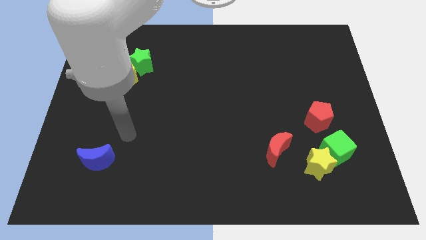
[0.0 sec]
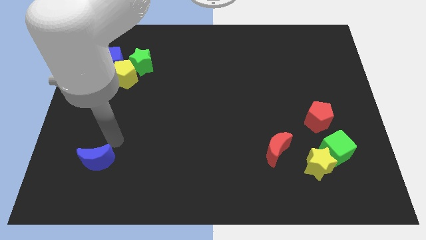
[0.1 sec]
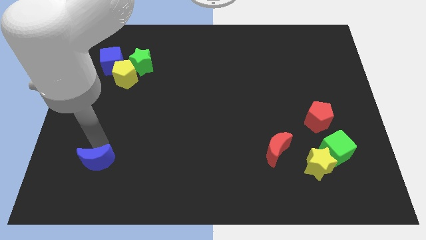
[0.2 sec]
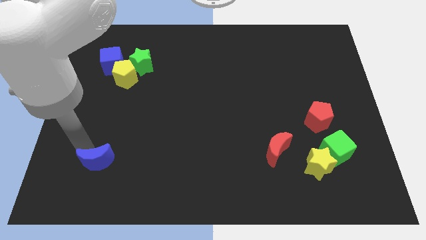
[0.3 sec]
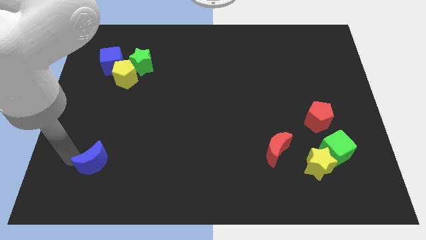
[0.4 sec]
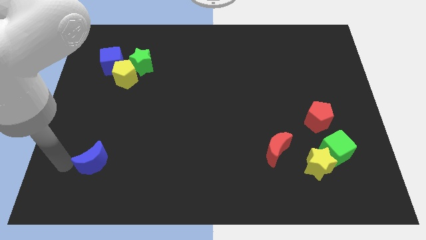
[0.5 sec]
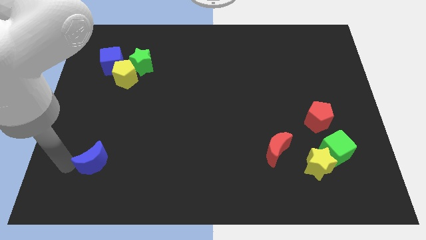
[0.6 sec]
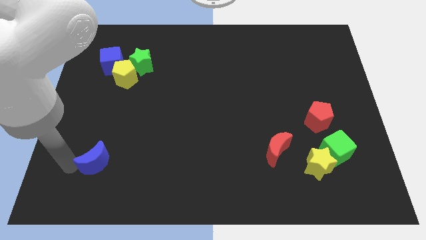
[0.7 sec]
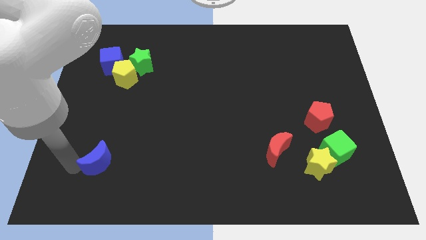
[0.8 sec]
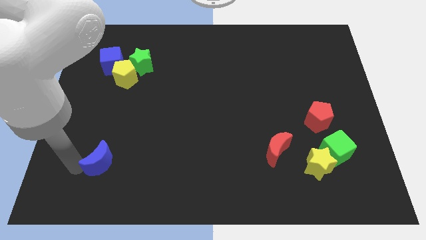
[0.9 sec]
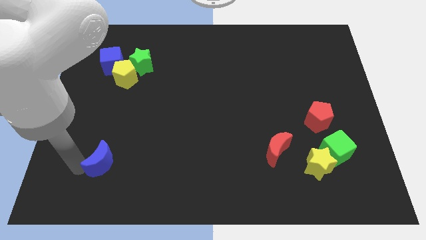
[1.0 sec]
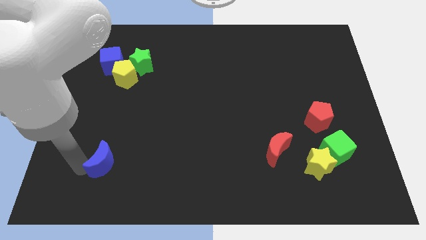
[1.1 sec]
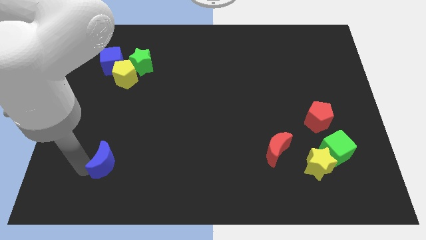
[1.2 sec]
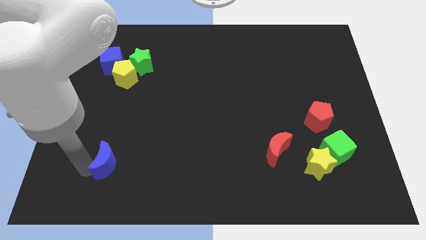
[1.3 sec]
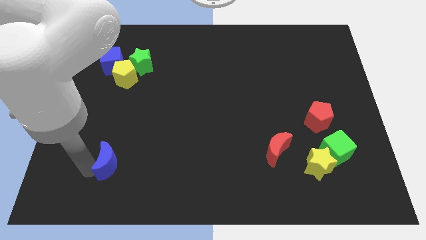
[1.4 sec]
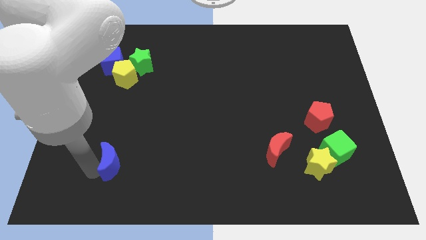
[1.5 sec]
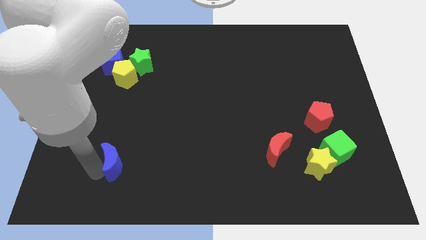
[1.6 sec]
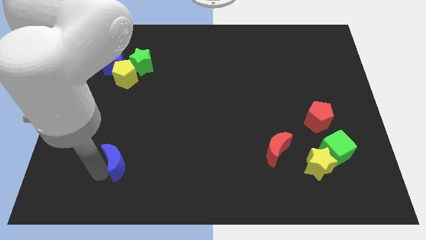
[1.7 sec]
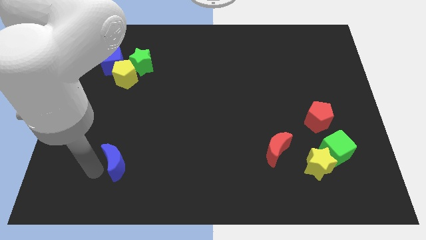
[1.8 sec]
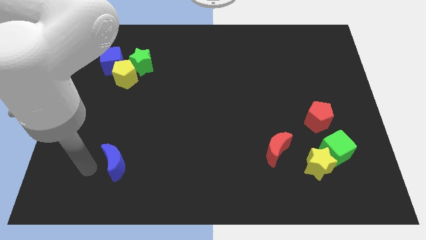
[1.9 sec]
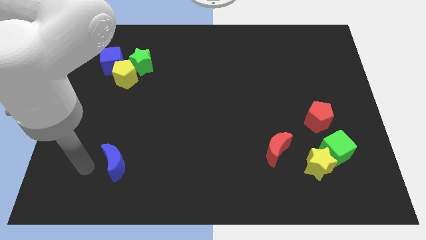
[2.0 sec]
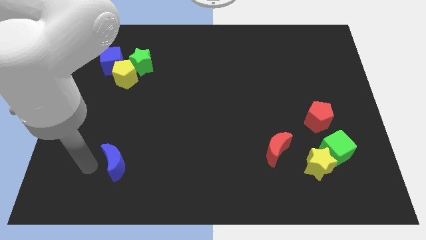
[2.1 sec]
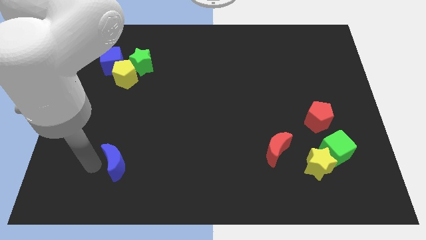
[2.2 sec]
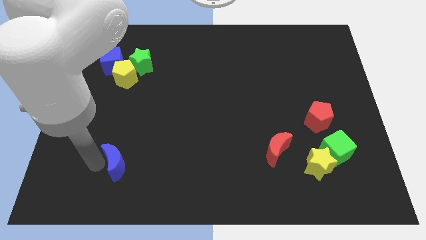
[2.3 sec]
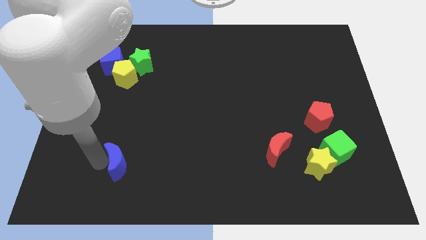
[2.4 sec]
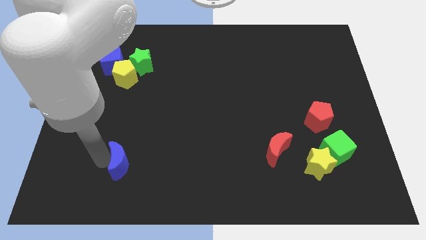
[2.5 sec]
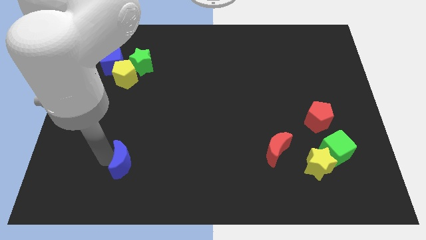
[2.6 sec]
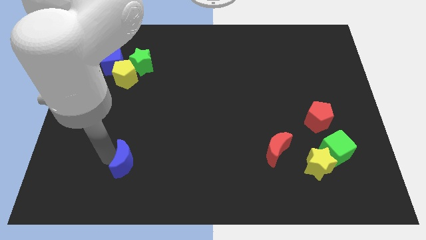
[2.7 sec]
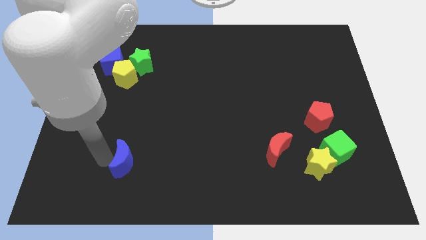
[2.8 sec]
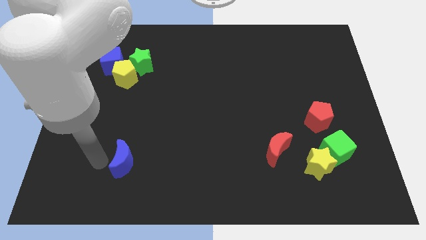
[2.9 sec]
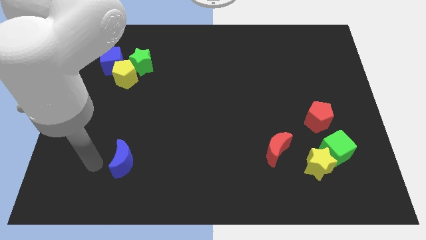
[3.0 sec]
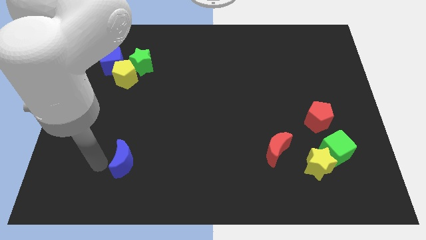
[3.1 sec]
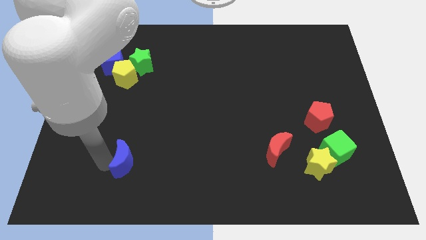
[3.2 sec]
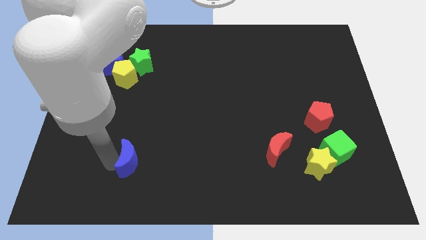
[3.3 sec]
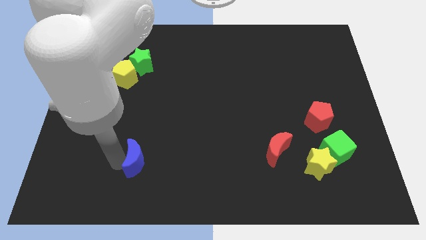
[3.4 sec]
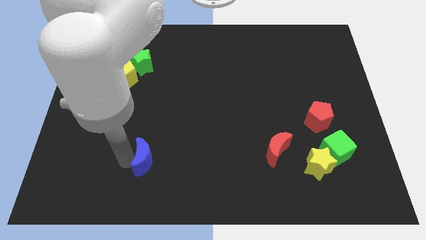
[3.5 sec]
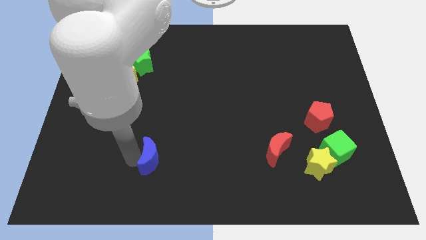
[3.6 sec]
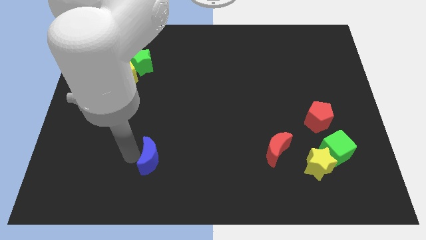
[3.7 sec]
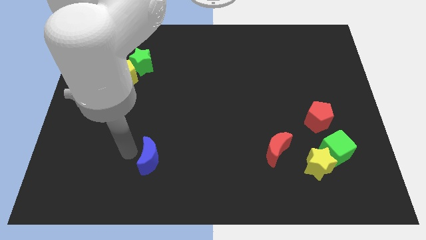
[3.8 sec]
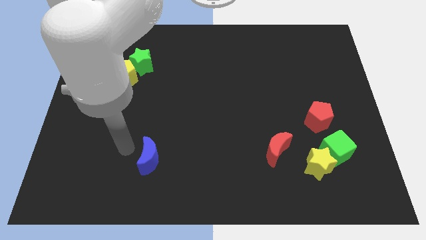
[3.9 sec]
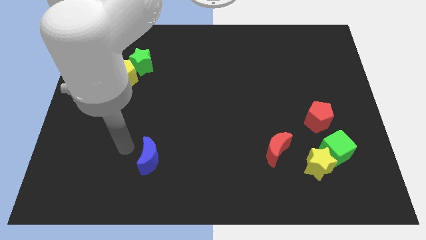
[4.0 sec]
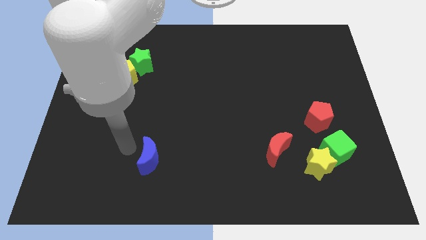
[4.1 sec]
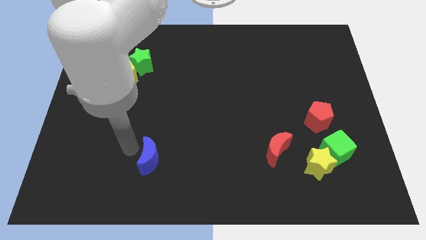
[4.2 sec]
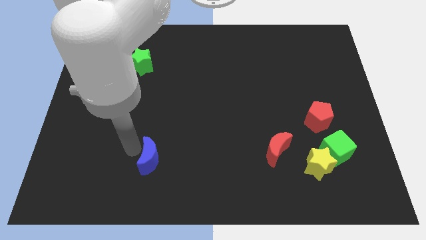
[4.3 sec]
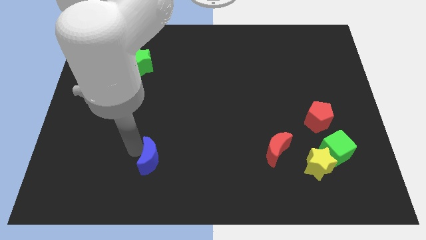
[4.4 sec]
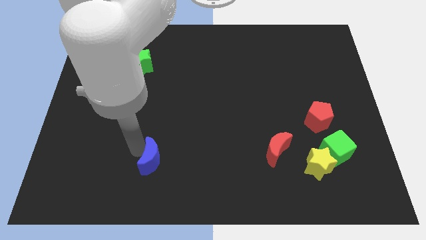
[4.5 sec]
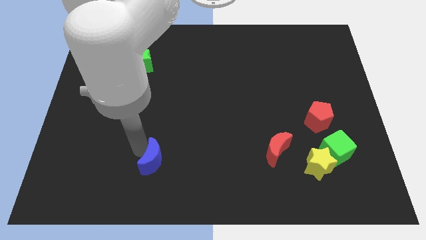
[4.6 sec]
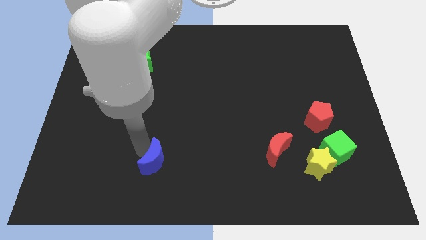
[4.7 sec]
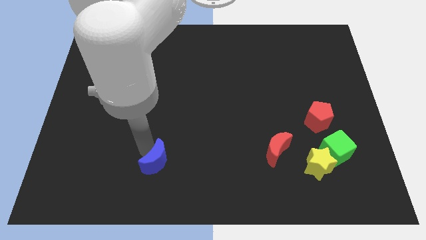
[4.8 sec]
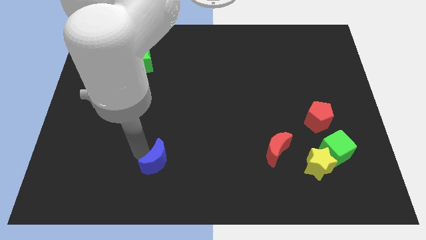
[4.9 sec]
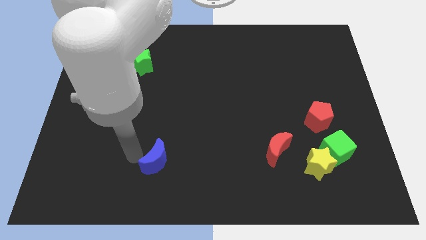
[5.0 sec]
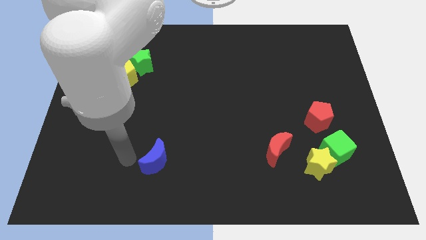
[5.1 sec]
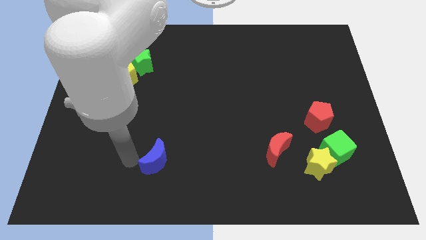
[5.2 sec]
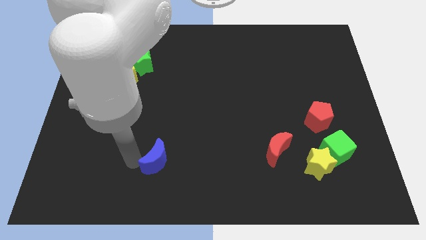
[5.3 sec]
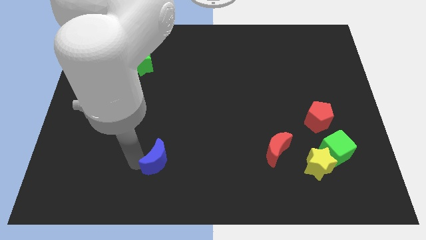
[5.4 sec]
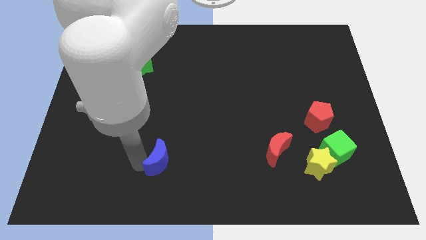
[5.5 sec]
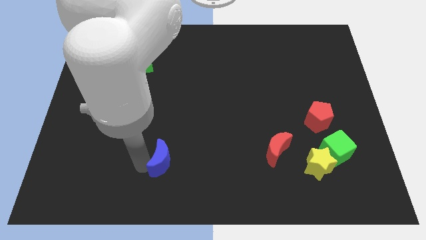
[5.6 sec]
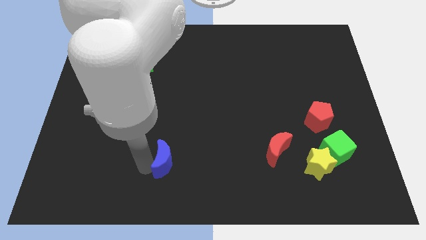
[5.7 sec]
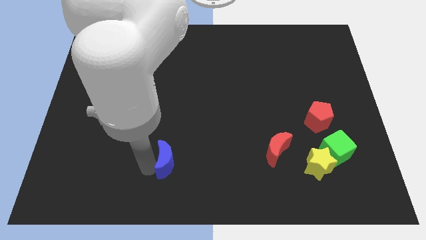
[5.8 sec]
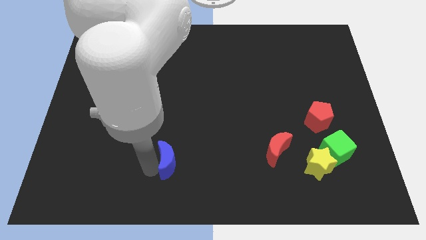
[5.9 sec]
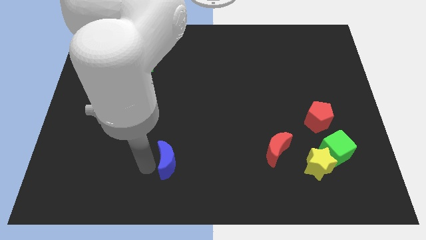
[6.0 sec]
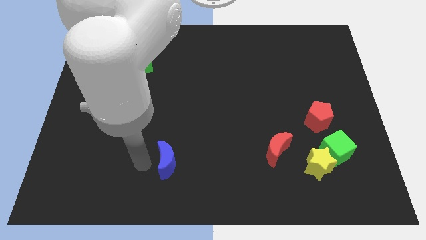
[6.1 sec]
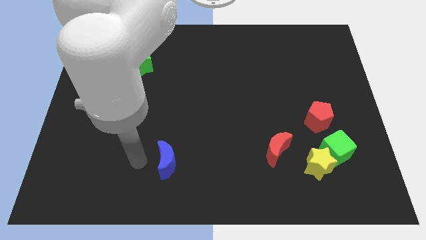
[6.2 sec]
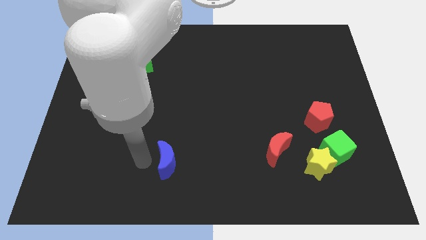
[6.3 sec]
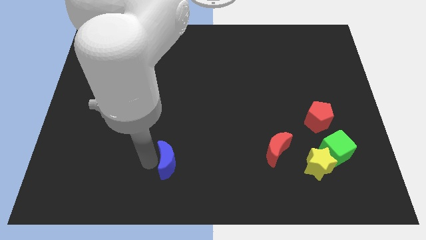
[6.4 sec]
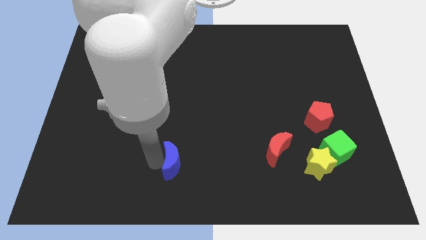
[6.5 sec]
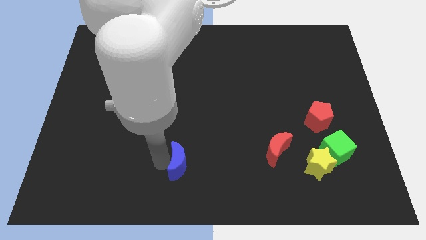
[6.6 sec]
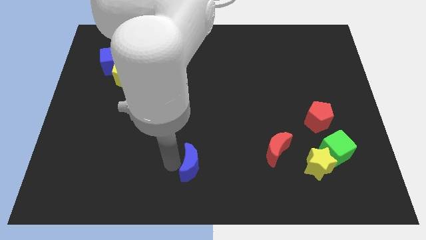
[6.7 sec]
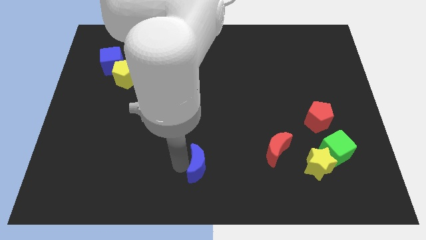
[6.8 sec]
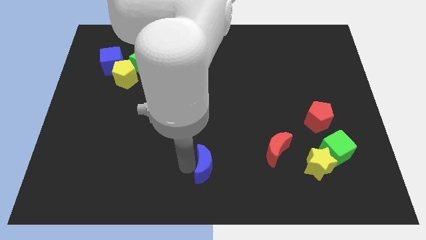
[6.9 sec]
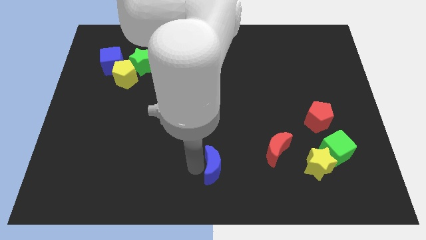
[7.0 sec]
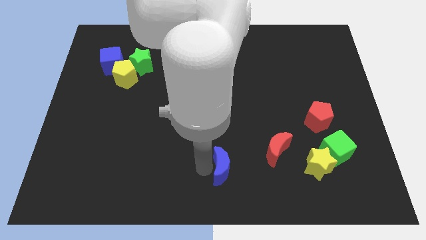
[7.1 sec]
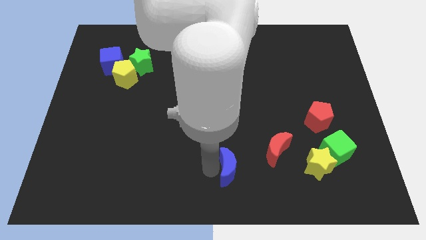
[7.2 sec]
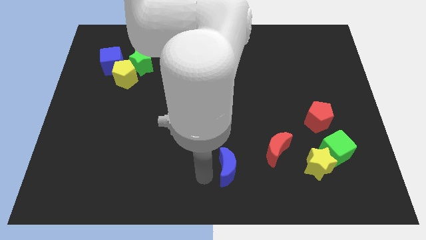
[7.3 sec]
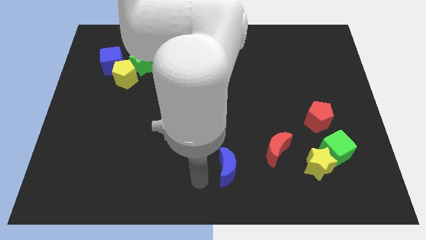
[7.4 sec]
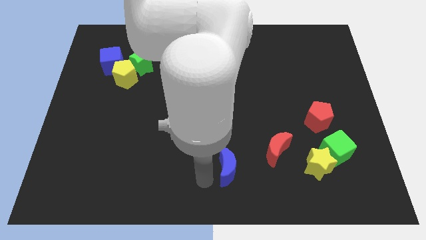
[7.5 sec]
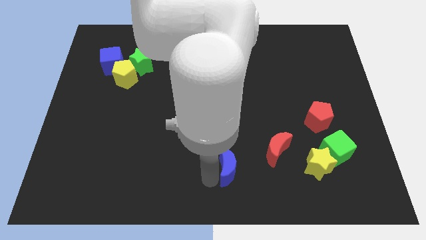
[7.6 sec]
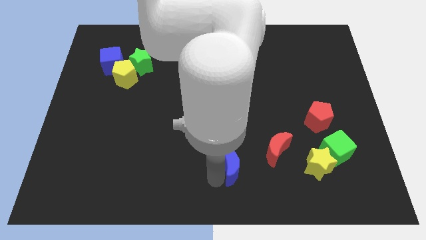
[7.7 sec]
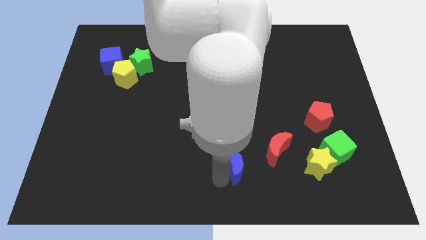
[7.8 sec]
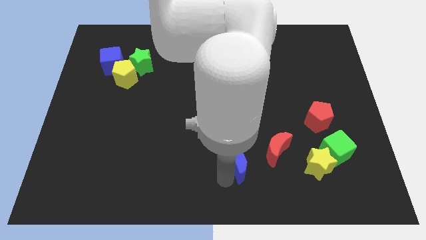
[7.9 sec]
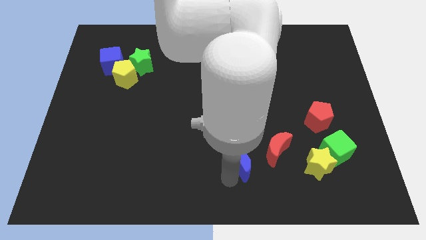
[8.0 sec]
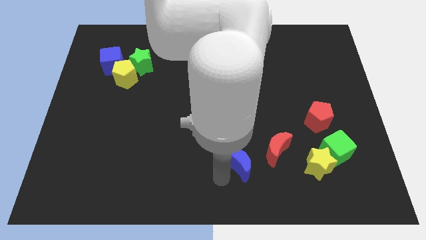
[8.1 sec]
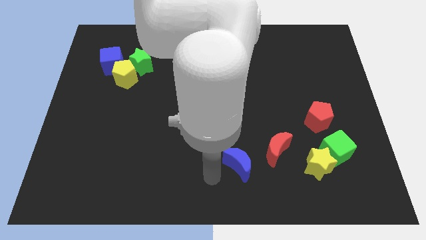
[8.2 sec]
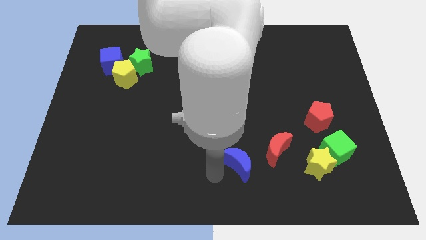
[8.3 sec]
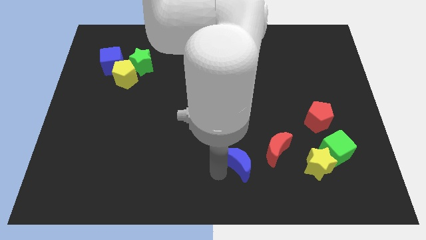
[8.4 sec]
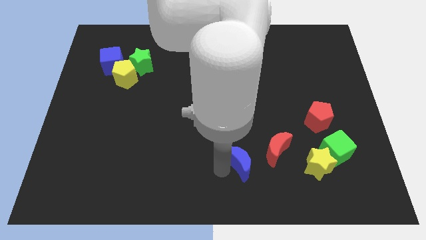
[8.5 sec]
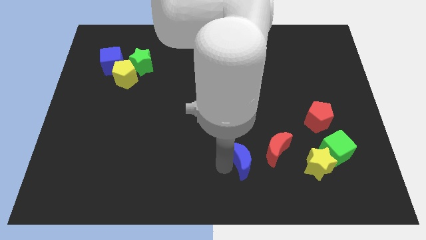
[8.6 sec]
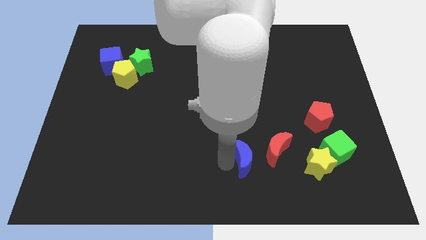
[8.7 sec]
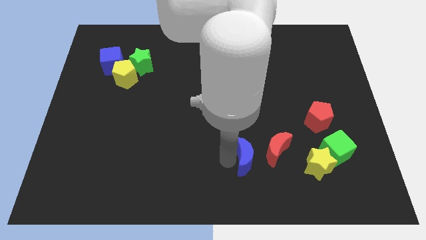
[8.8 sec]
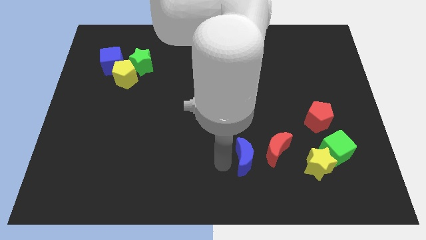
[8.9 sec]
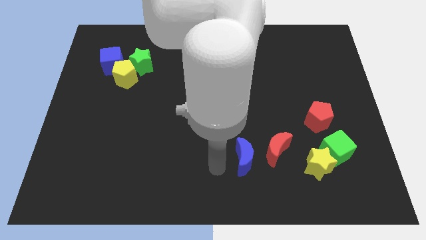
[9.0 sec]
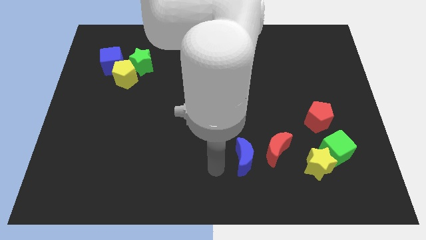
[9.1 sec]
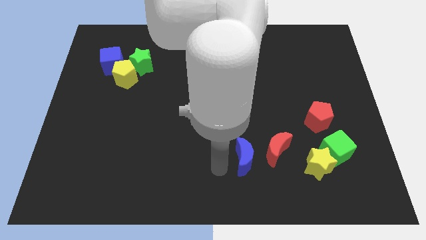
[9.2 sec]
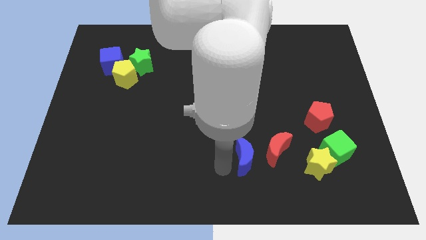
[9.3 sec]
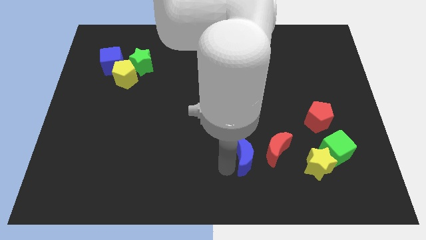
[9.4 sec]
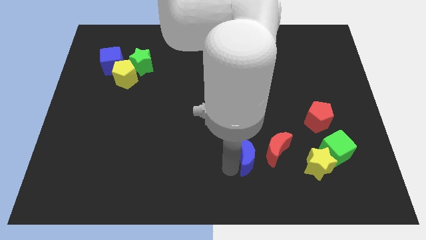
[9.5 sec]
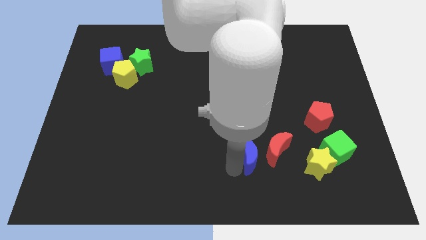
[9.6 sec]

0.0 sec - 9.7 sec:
put the blue moon next to the red moon
